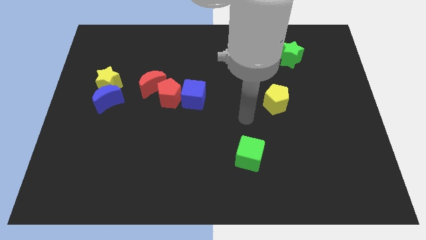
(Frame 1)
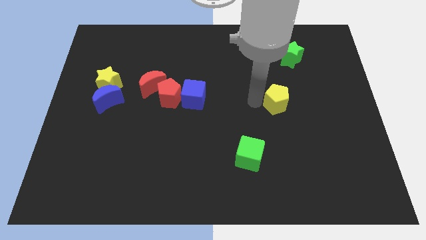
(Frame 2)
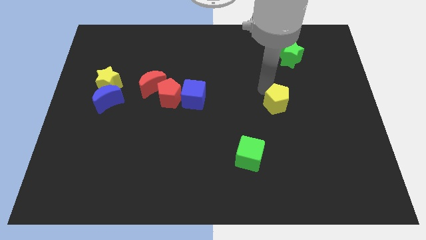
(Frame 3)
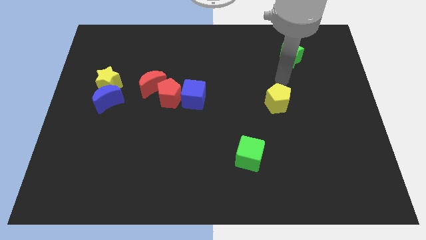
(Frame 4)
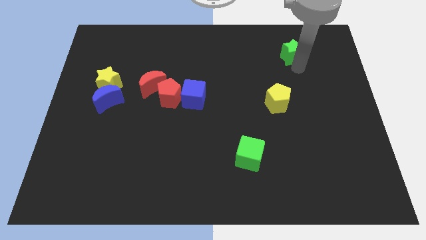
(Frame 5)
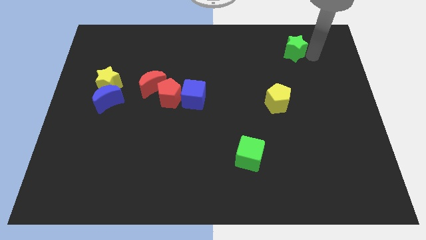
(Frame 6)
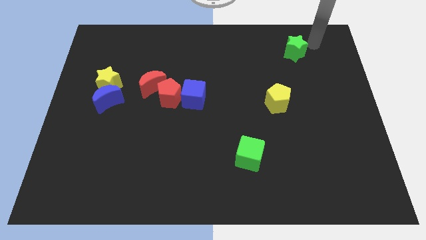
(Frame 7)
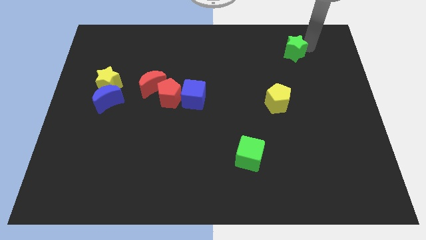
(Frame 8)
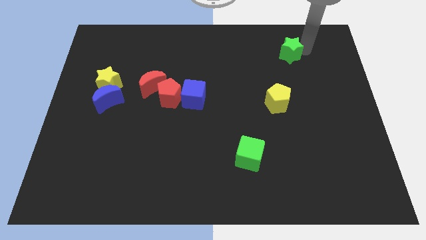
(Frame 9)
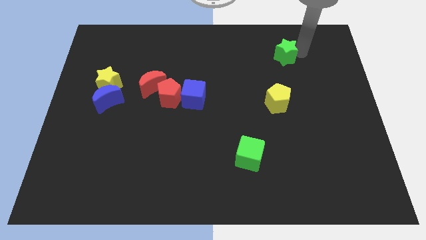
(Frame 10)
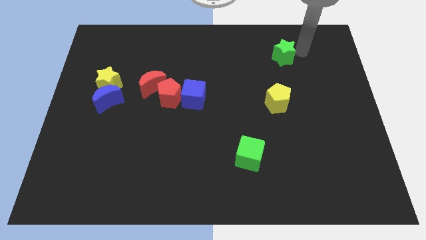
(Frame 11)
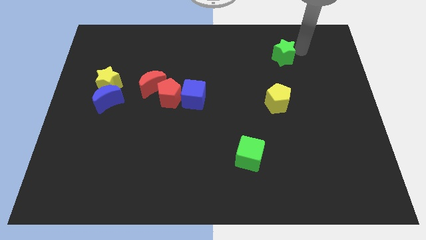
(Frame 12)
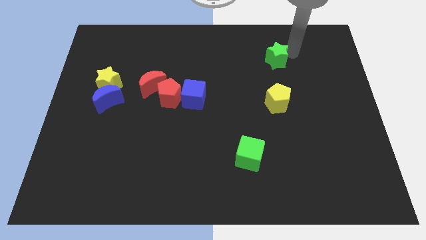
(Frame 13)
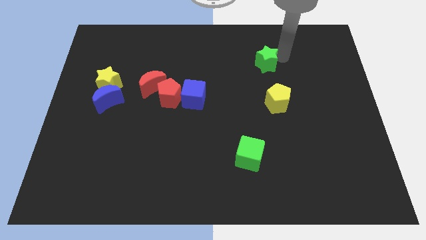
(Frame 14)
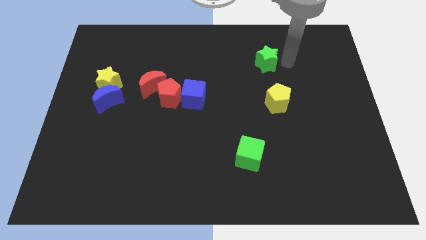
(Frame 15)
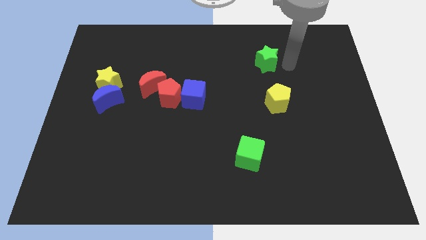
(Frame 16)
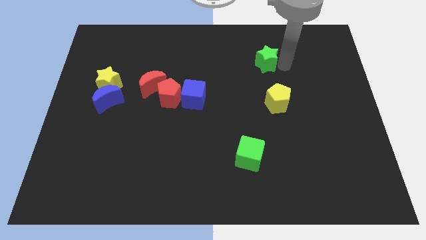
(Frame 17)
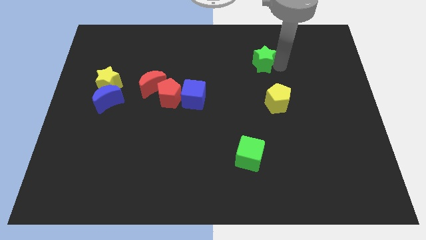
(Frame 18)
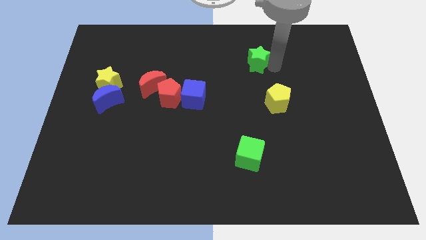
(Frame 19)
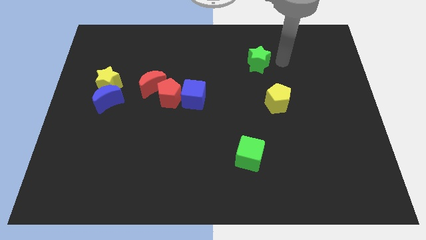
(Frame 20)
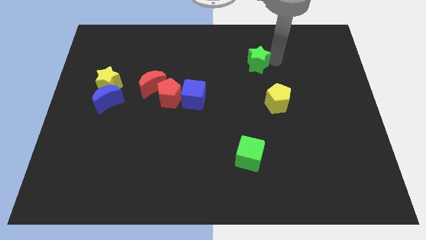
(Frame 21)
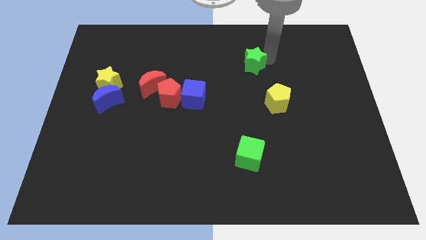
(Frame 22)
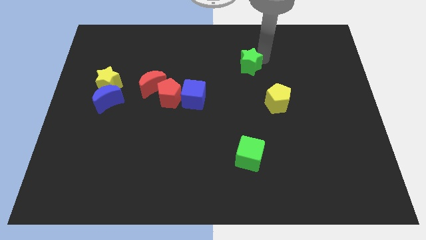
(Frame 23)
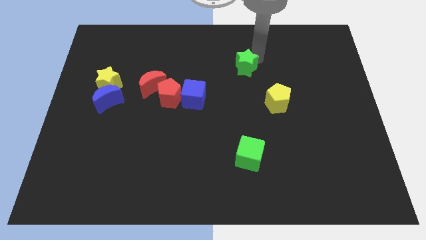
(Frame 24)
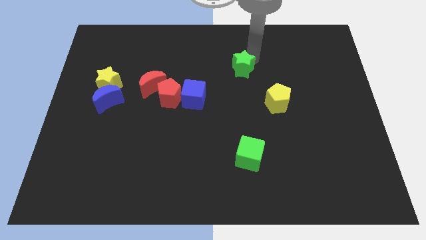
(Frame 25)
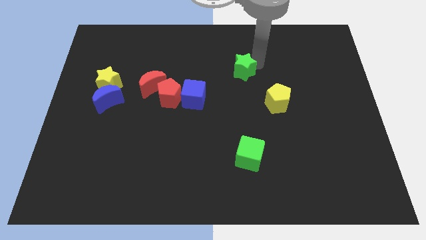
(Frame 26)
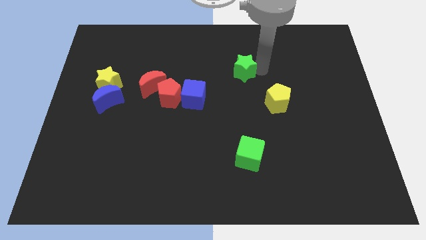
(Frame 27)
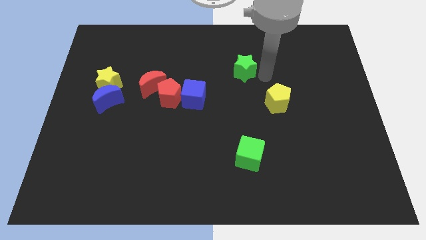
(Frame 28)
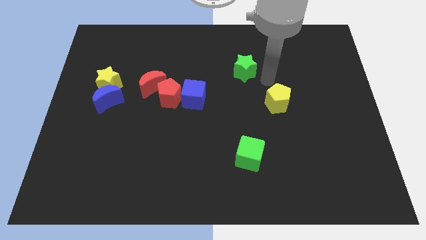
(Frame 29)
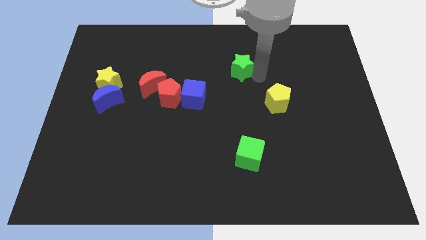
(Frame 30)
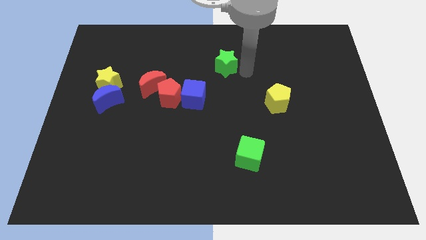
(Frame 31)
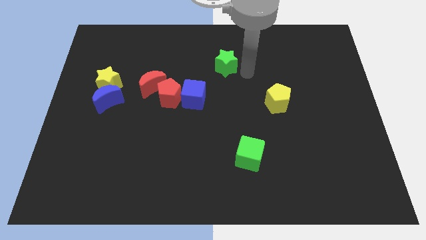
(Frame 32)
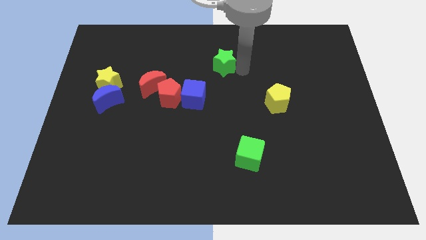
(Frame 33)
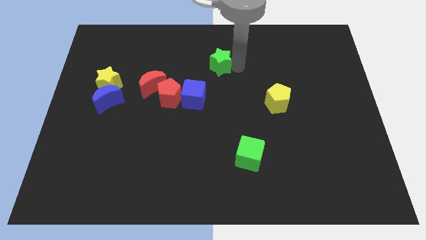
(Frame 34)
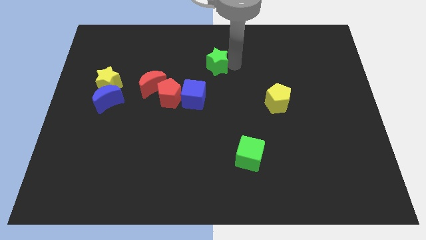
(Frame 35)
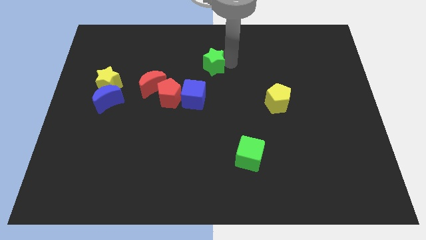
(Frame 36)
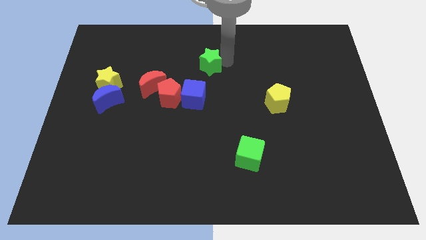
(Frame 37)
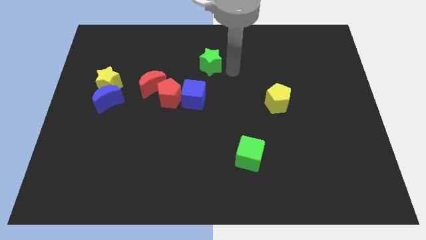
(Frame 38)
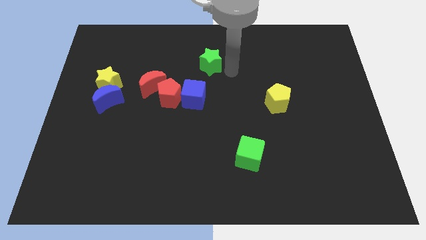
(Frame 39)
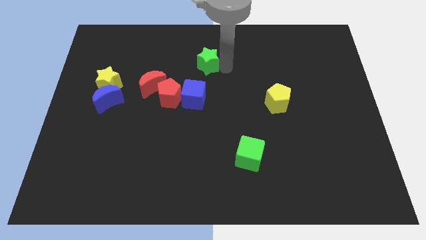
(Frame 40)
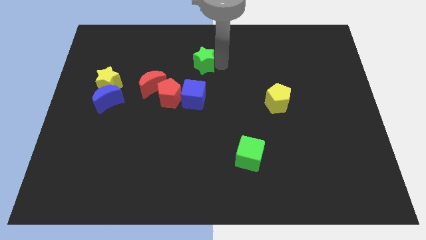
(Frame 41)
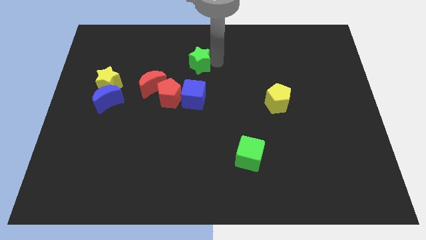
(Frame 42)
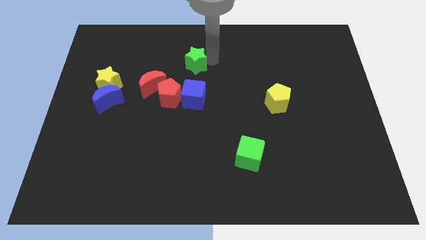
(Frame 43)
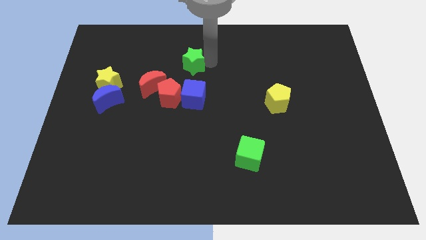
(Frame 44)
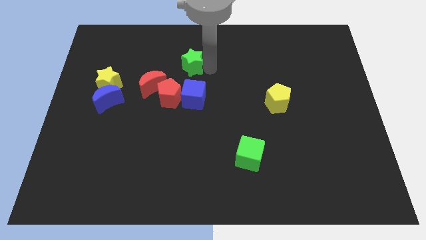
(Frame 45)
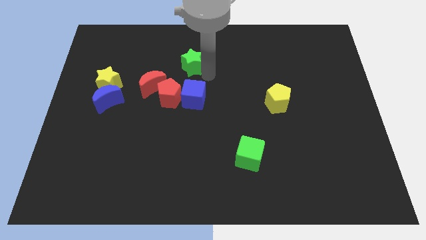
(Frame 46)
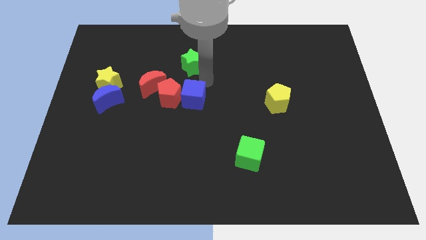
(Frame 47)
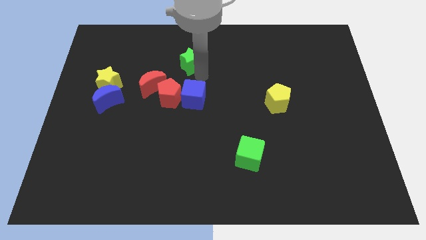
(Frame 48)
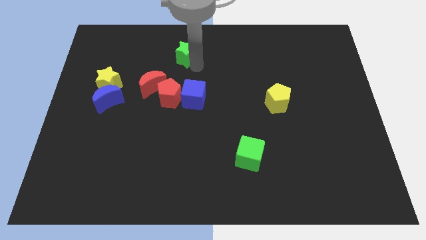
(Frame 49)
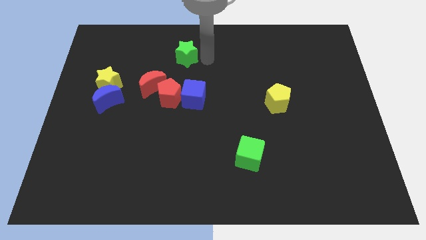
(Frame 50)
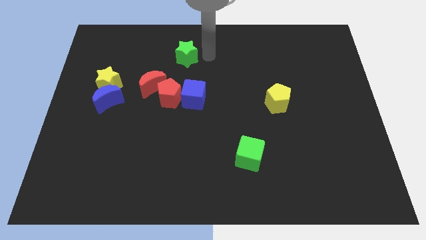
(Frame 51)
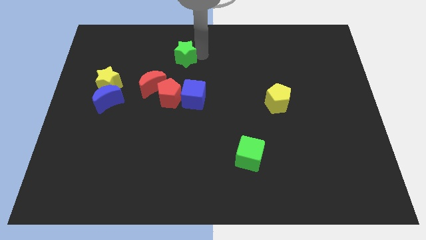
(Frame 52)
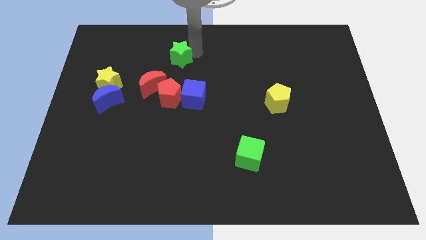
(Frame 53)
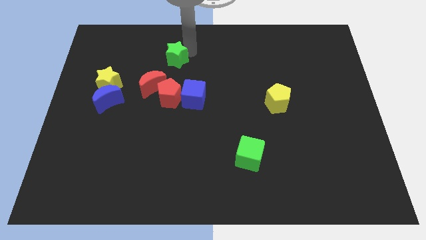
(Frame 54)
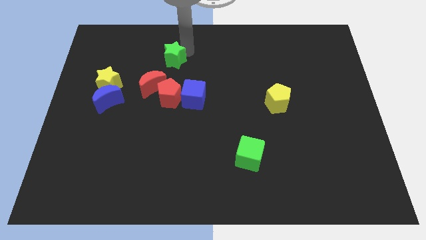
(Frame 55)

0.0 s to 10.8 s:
put the green star to the top side of the red moon

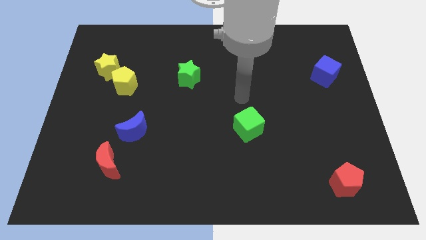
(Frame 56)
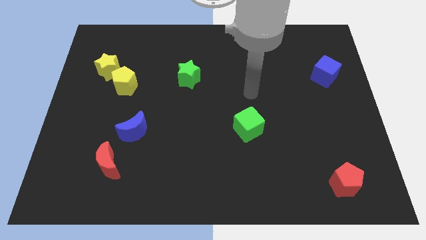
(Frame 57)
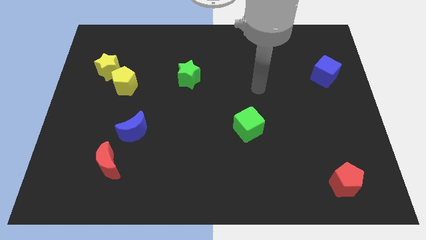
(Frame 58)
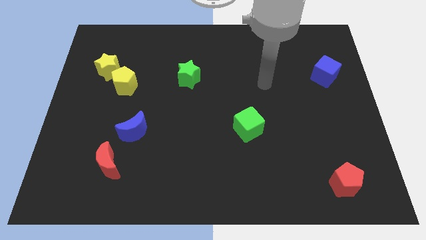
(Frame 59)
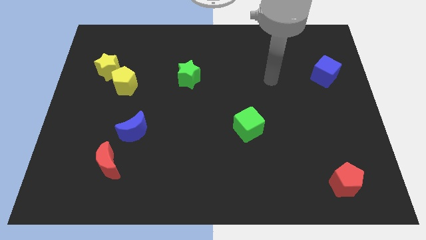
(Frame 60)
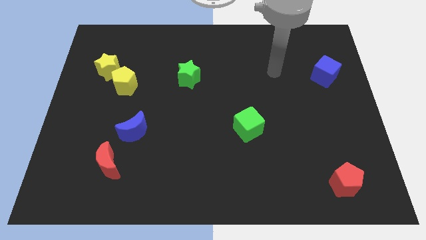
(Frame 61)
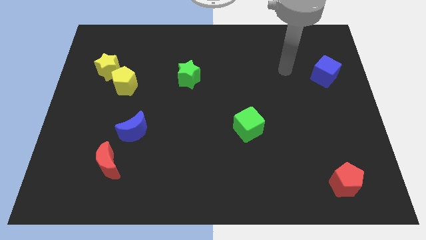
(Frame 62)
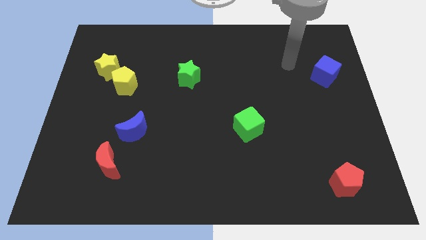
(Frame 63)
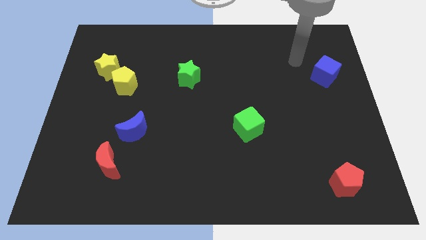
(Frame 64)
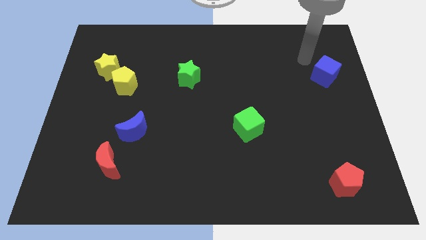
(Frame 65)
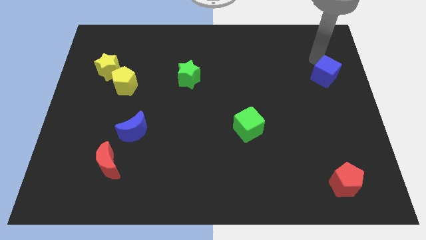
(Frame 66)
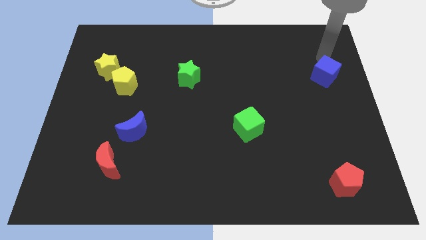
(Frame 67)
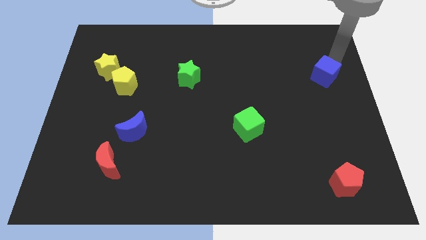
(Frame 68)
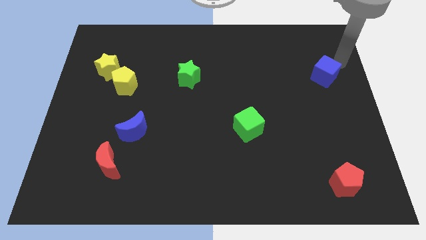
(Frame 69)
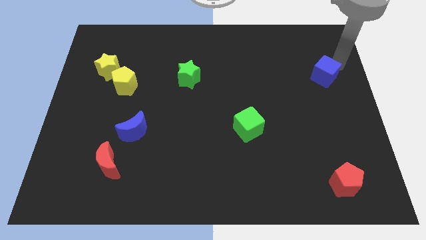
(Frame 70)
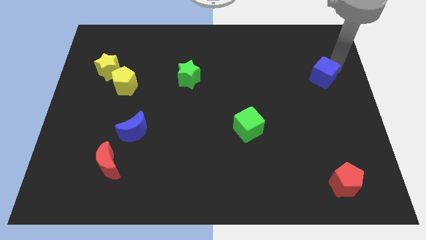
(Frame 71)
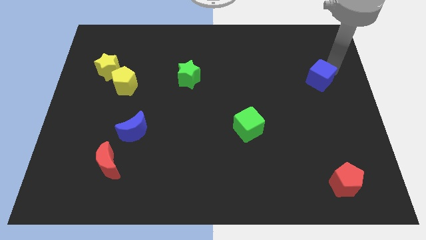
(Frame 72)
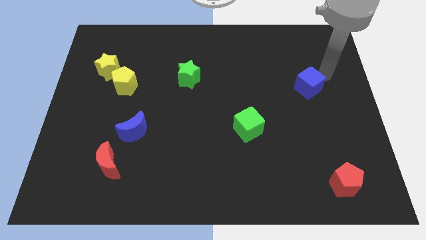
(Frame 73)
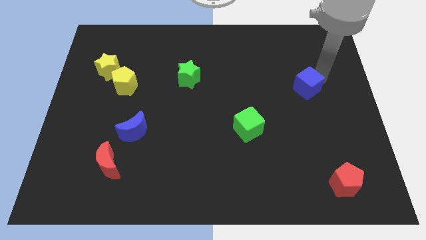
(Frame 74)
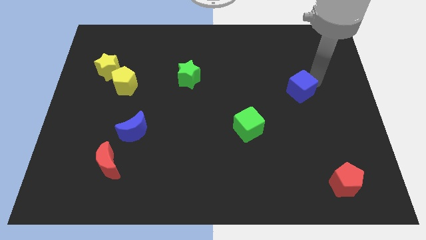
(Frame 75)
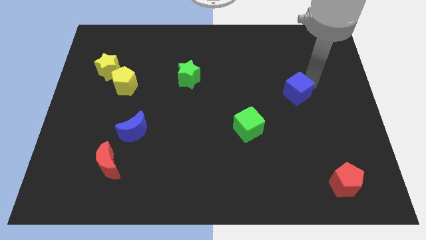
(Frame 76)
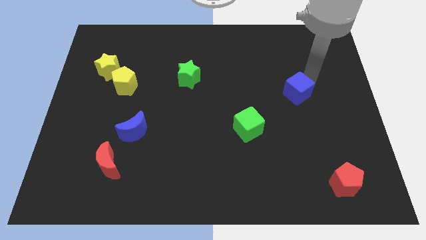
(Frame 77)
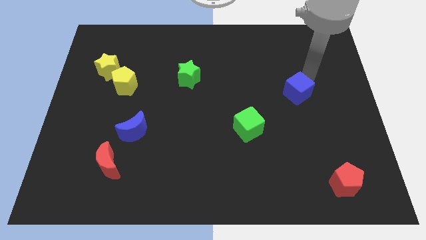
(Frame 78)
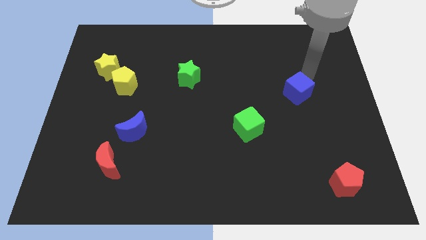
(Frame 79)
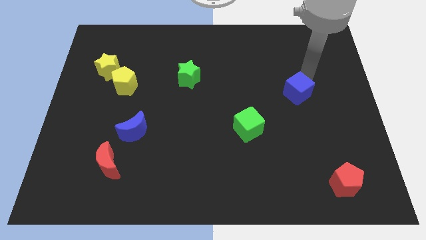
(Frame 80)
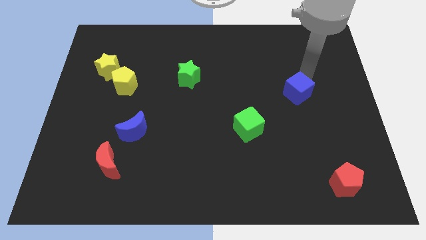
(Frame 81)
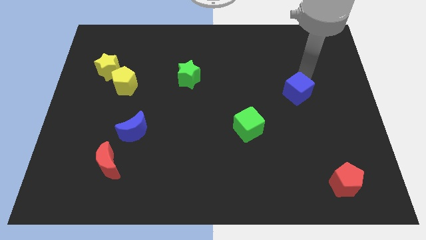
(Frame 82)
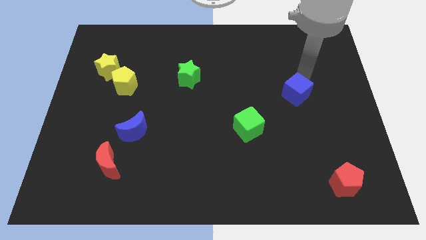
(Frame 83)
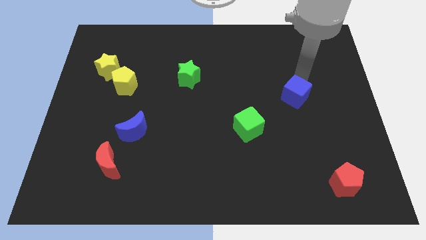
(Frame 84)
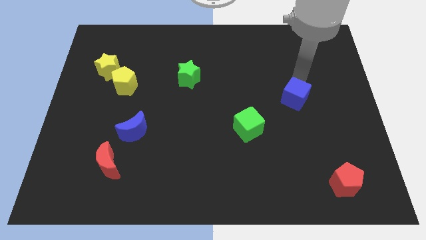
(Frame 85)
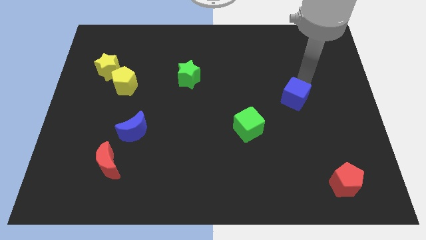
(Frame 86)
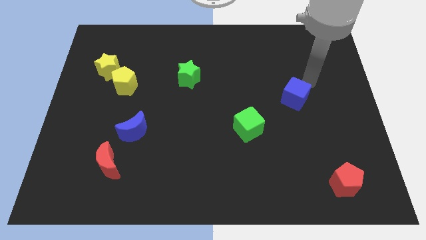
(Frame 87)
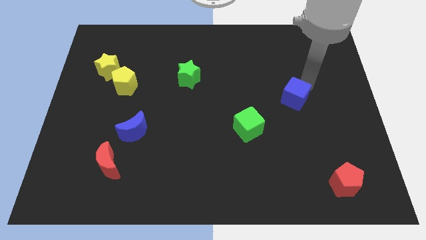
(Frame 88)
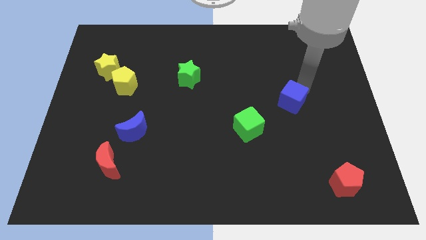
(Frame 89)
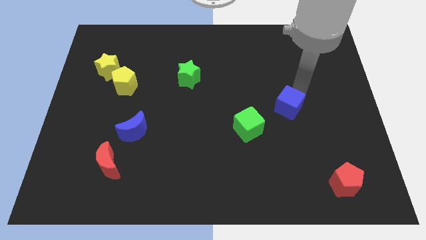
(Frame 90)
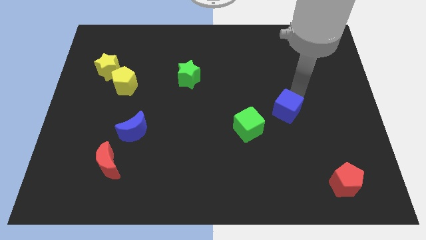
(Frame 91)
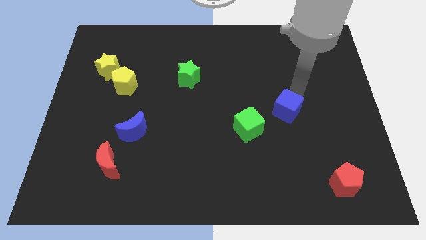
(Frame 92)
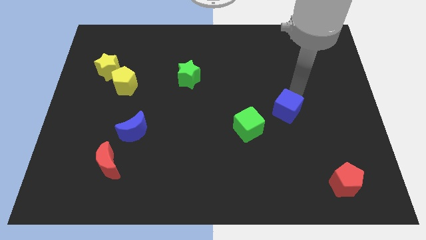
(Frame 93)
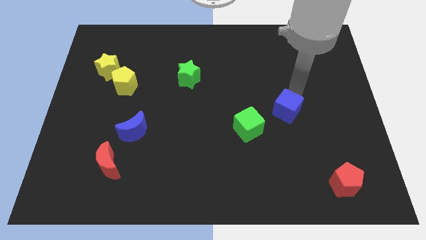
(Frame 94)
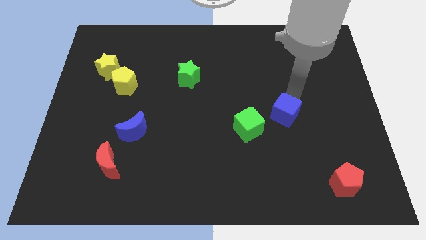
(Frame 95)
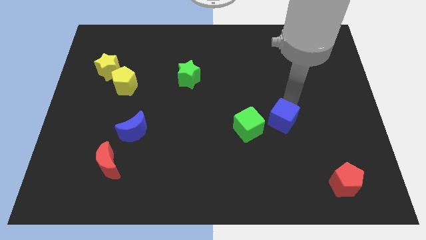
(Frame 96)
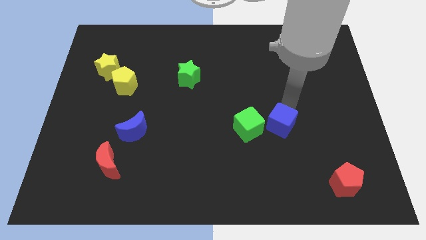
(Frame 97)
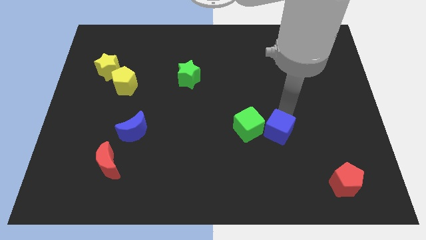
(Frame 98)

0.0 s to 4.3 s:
slide the blue cube diagonally down and to the right of the green cube
